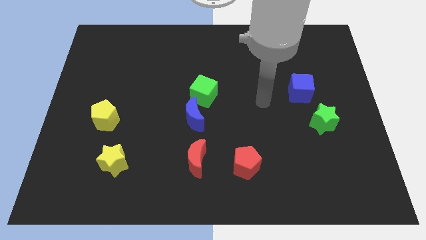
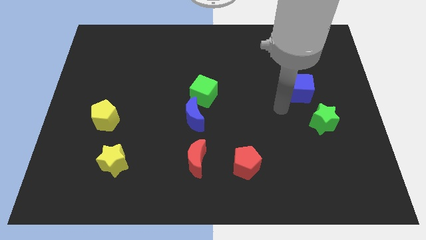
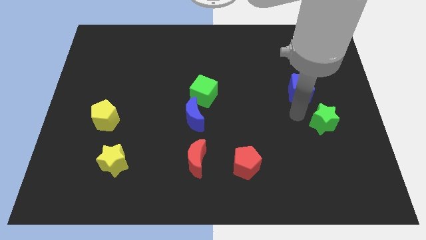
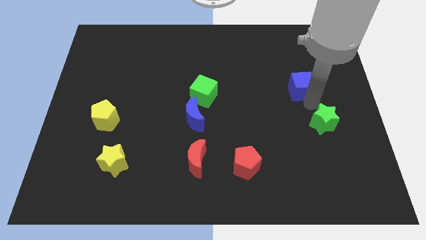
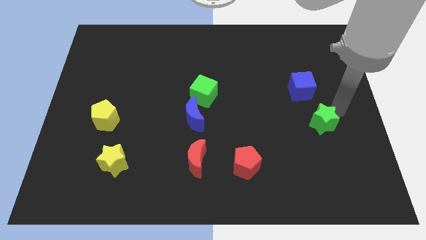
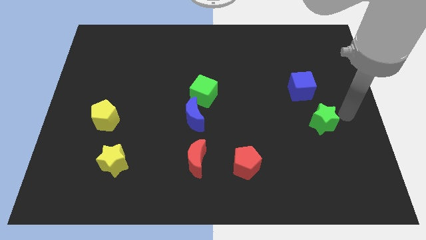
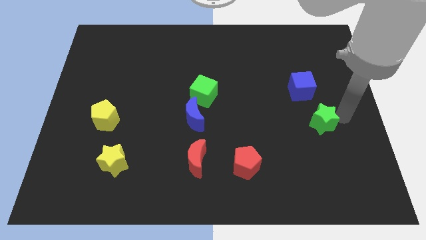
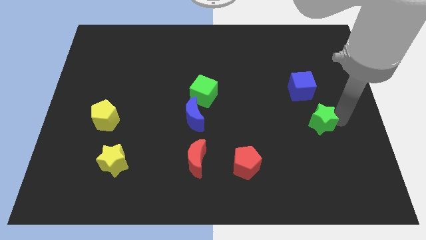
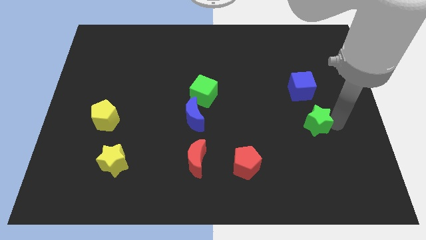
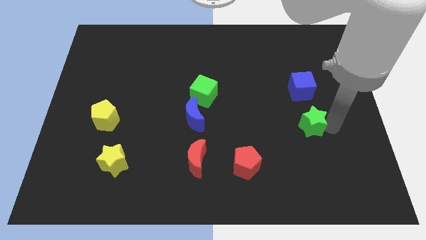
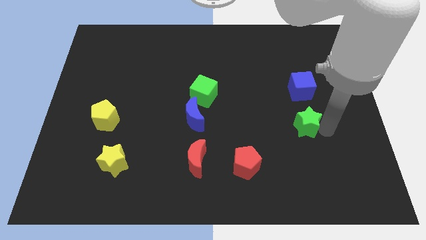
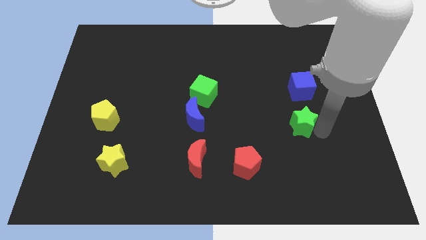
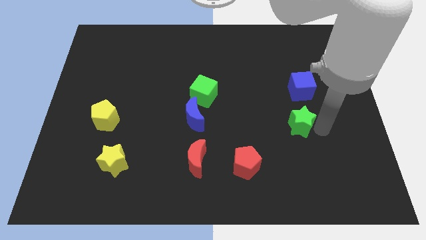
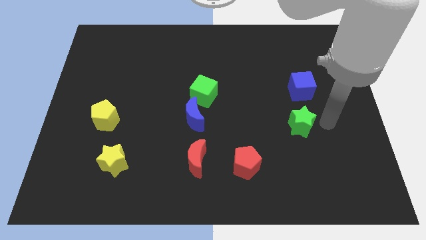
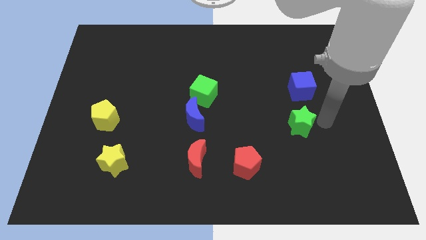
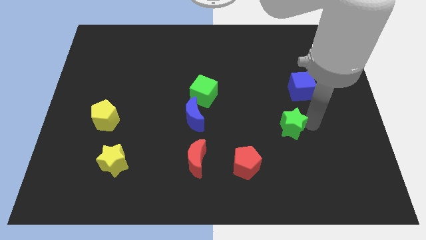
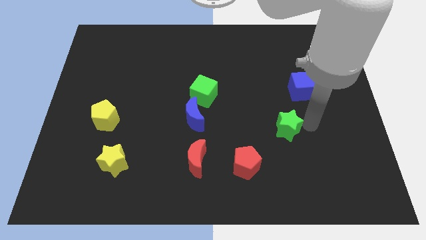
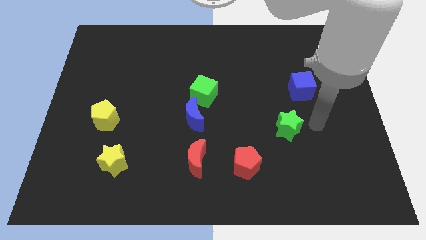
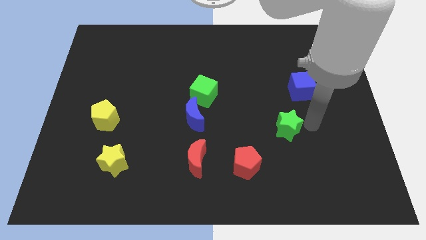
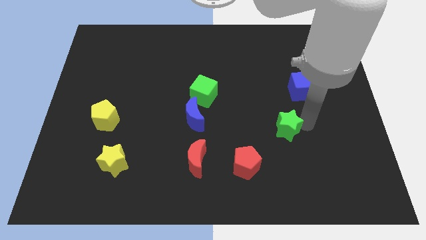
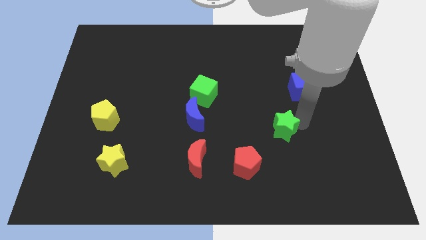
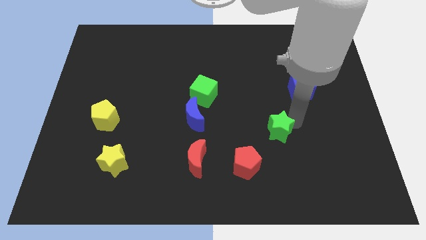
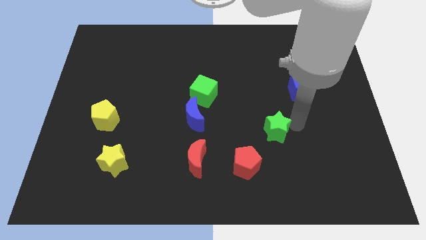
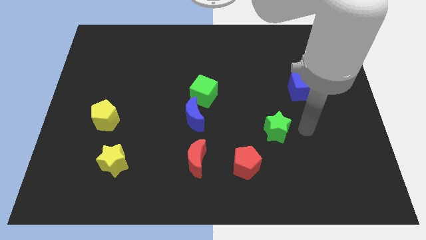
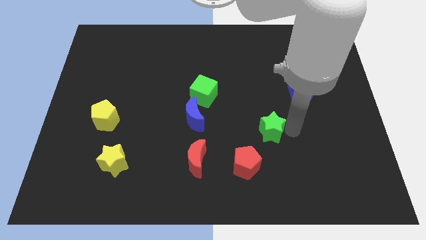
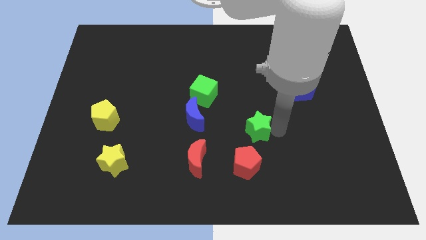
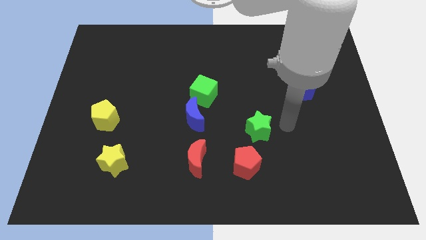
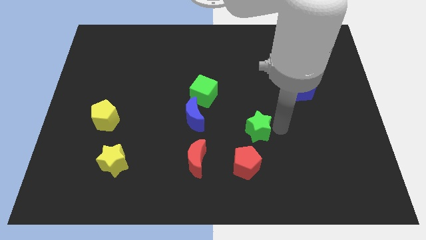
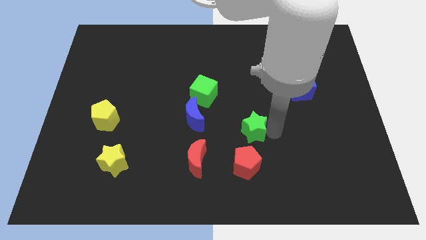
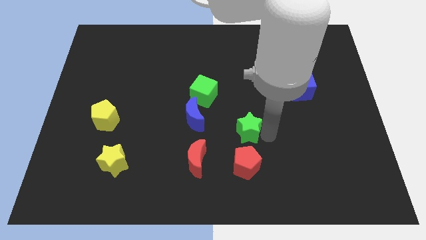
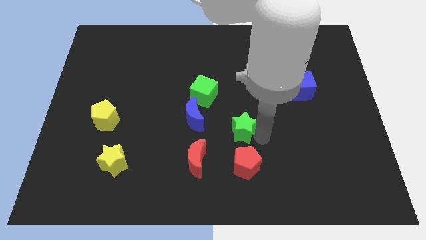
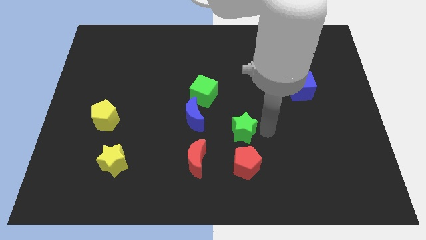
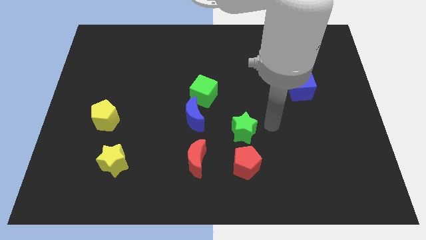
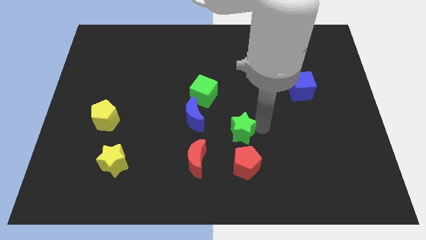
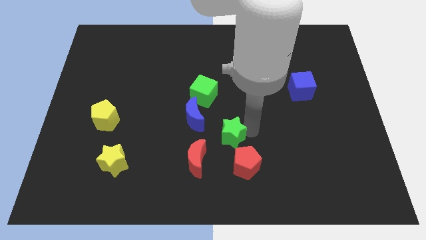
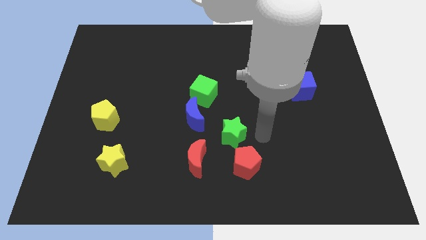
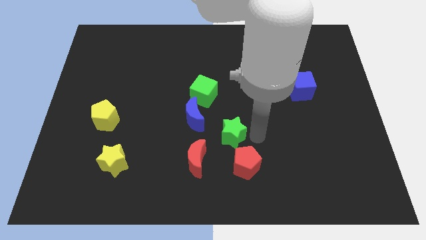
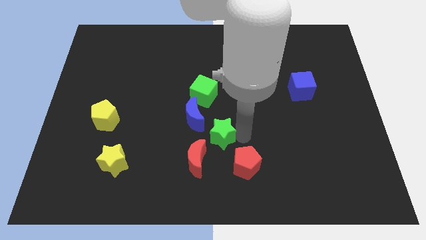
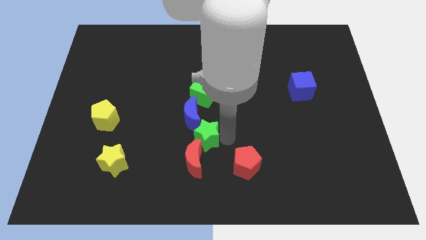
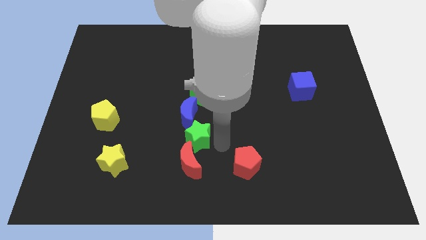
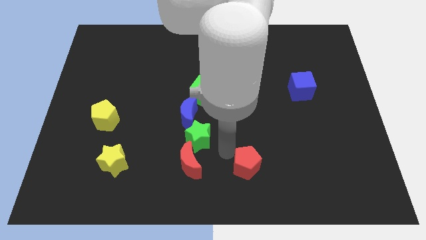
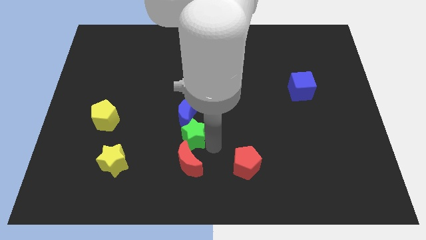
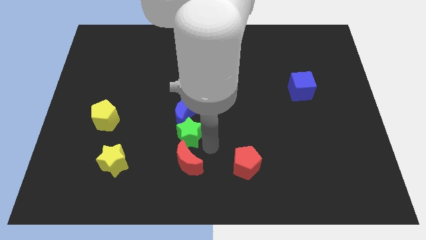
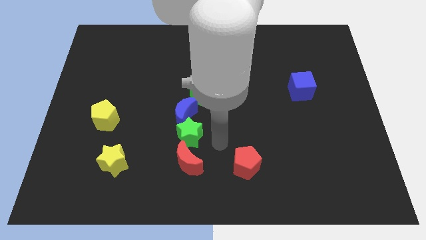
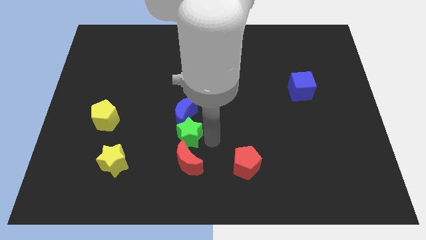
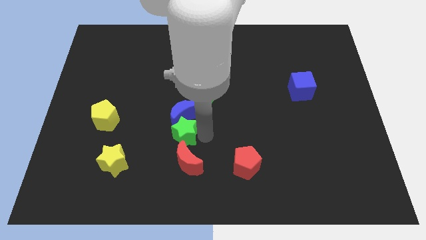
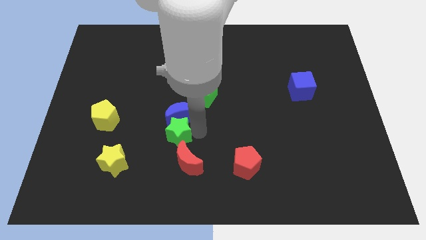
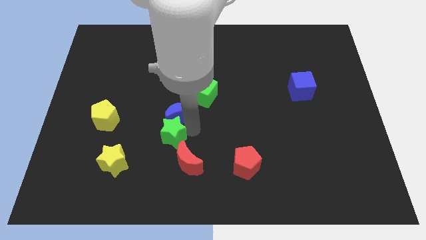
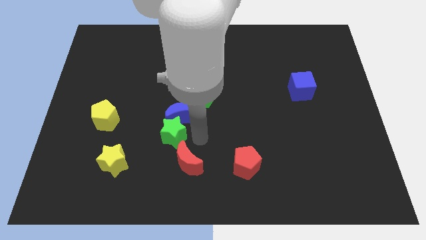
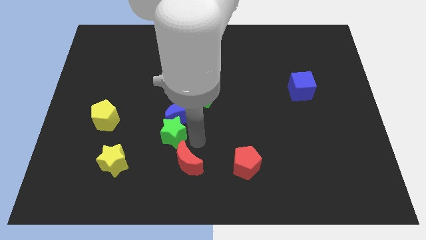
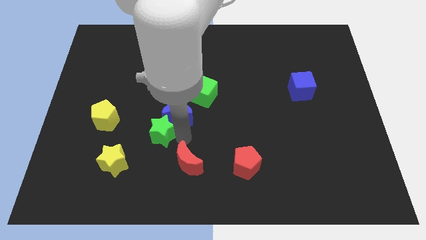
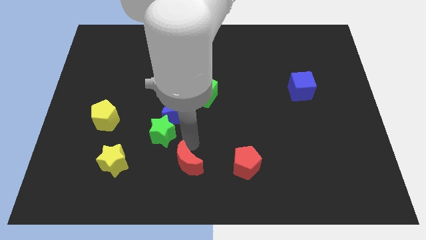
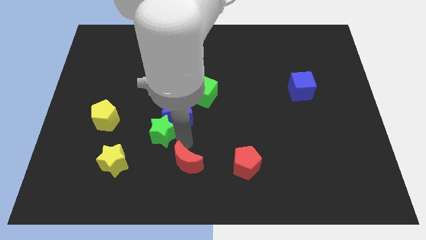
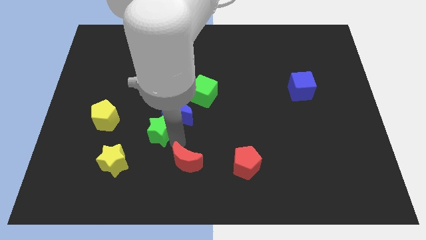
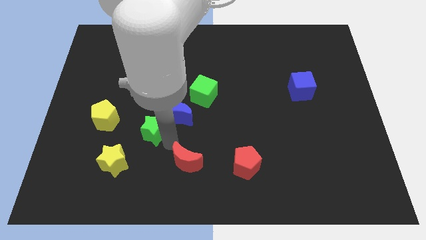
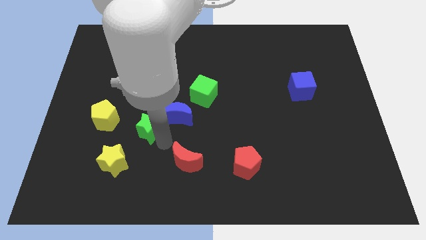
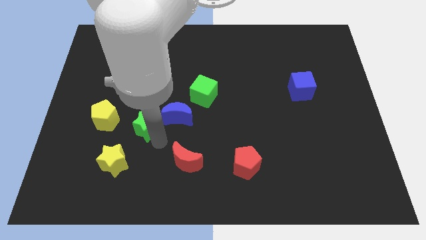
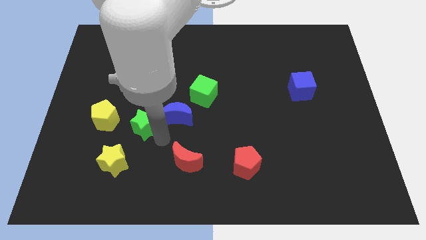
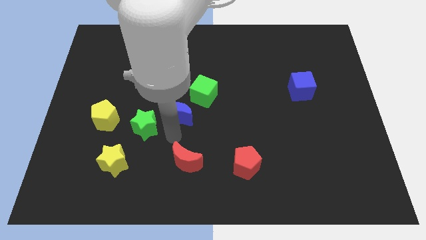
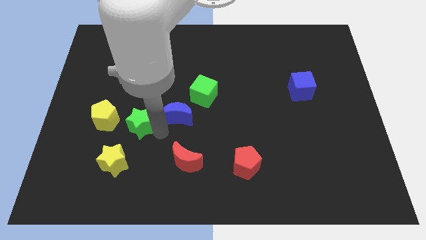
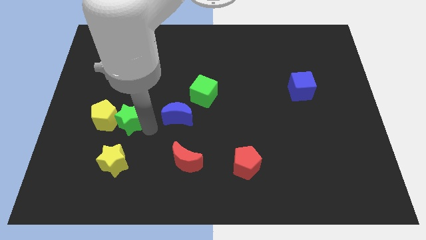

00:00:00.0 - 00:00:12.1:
put the green star next to the yellow pentagon

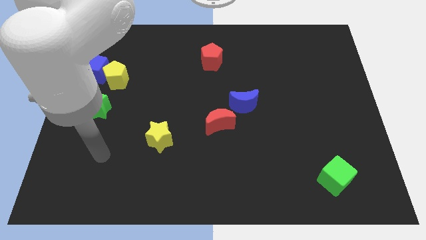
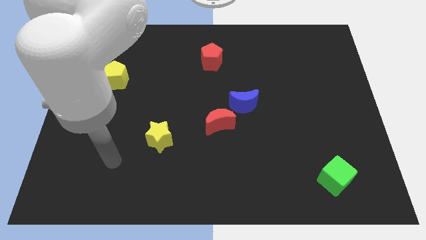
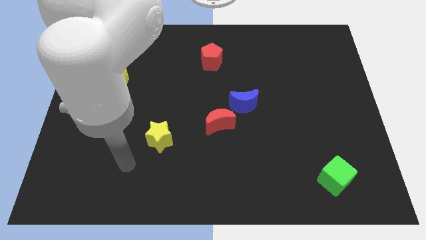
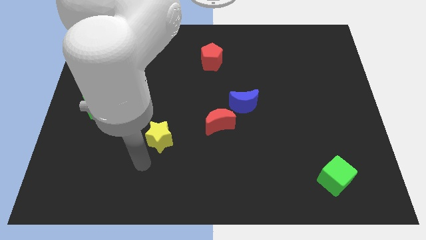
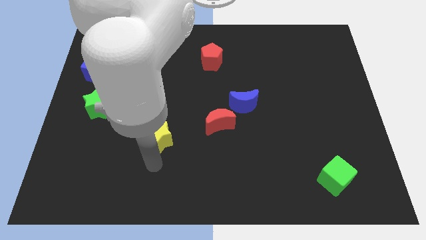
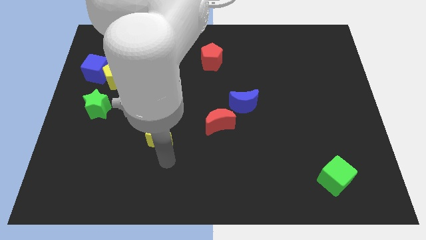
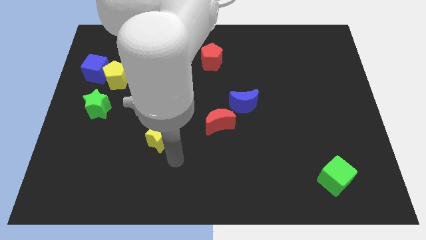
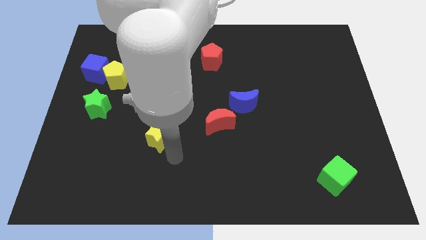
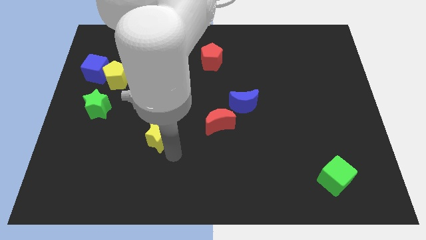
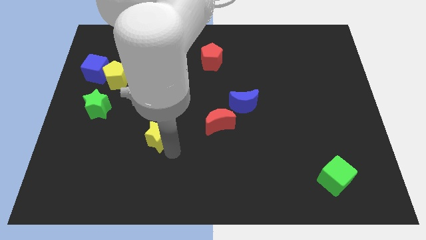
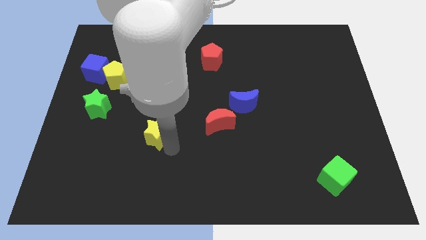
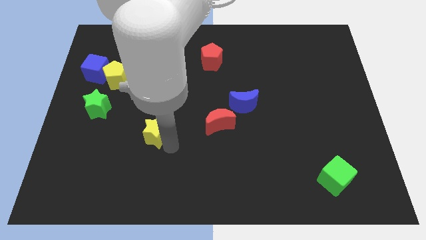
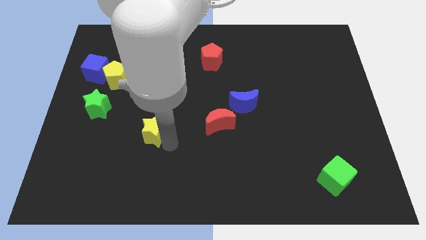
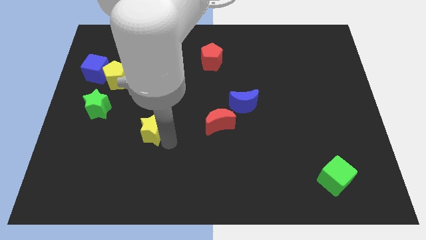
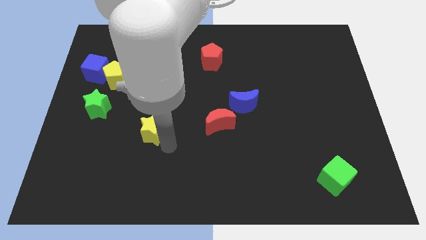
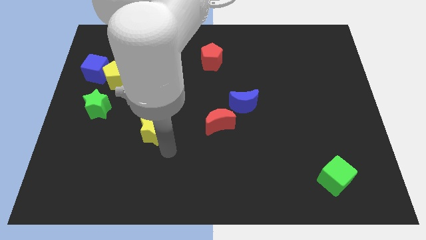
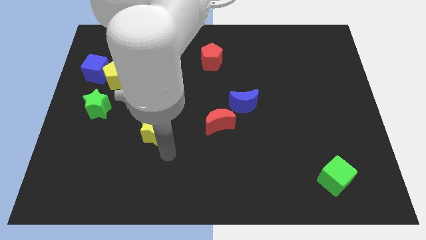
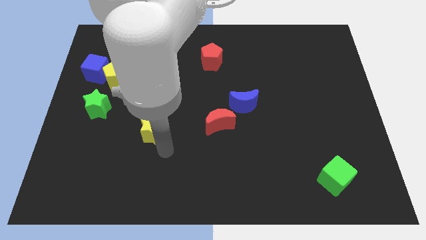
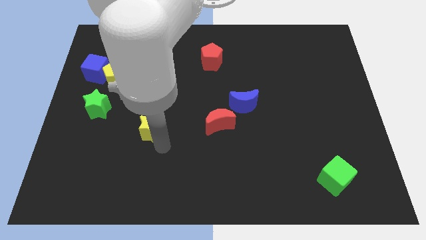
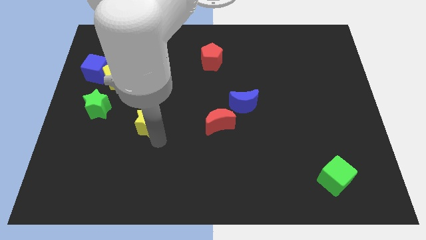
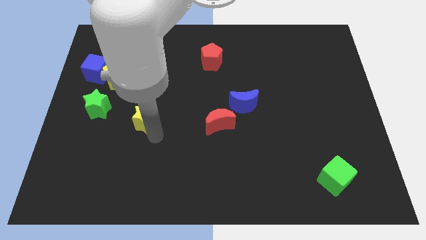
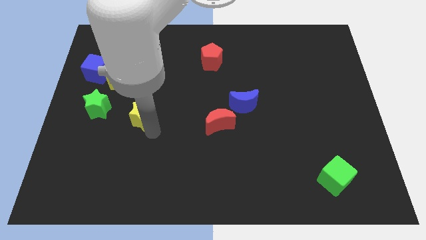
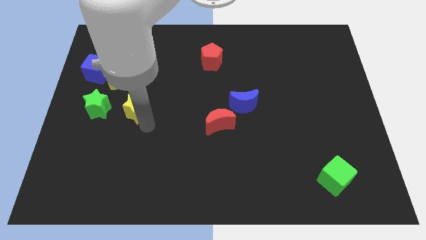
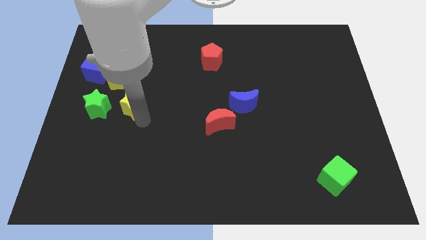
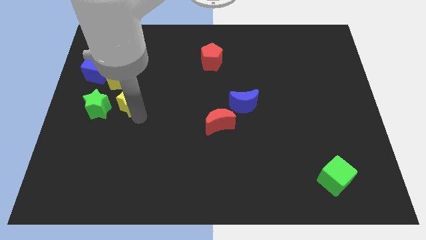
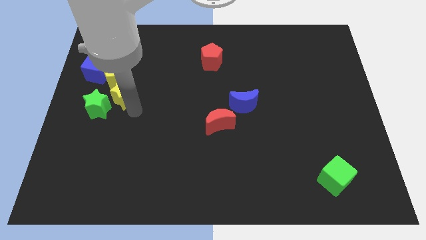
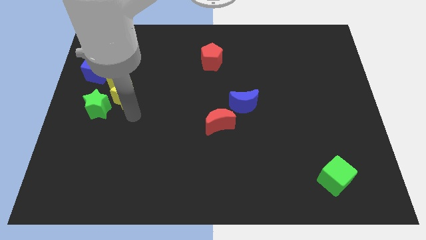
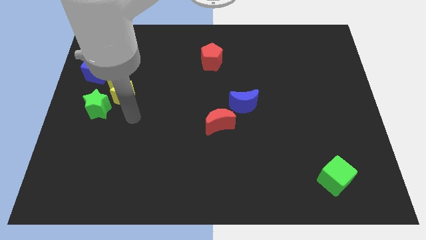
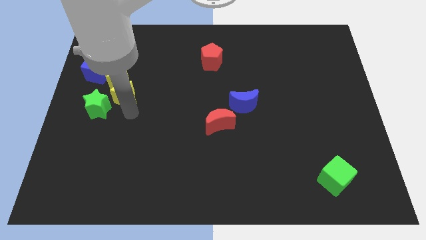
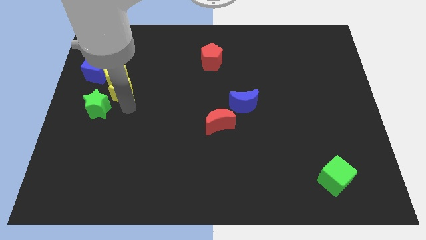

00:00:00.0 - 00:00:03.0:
put the yellow star to the yellow pentagon
